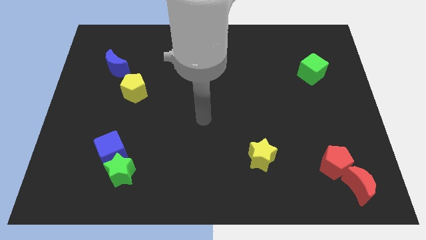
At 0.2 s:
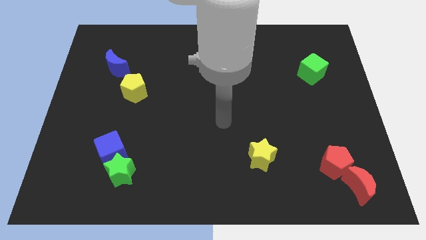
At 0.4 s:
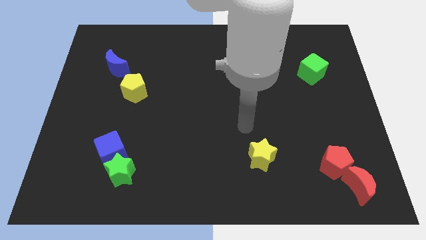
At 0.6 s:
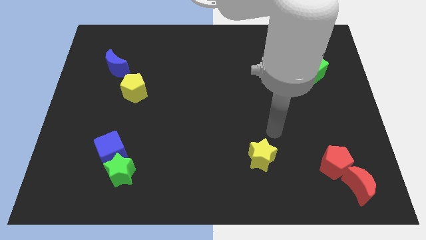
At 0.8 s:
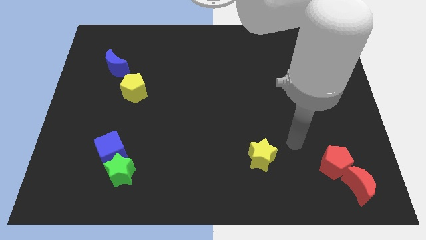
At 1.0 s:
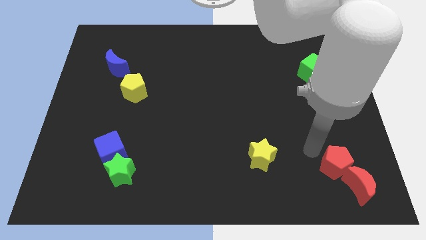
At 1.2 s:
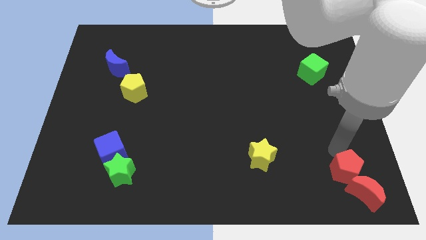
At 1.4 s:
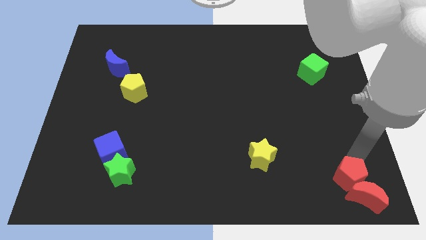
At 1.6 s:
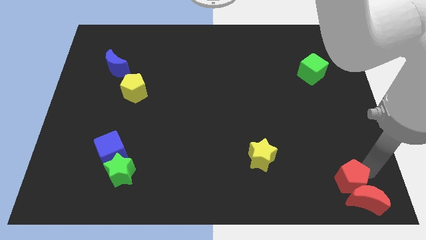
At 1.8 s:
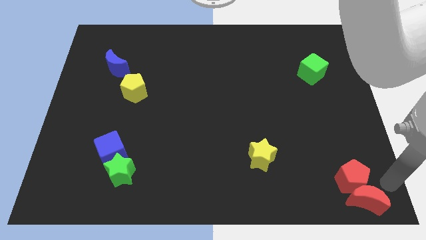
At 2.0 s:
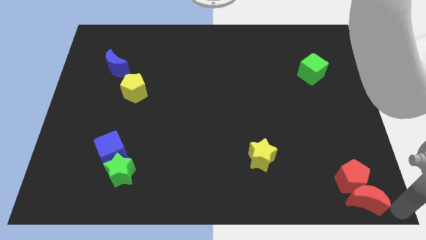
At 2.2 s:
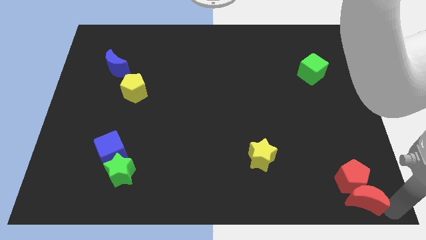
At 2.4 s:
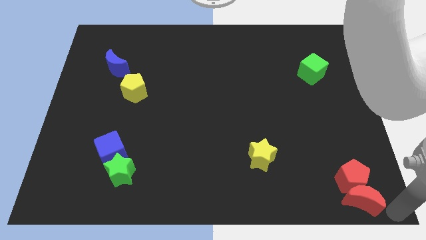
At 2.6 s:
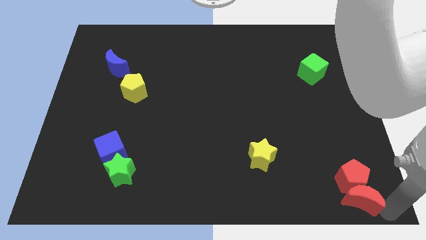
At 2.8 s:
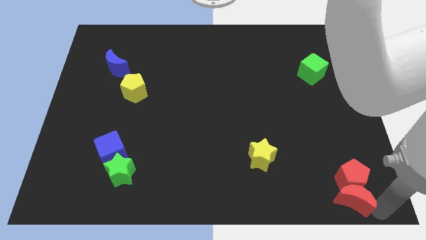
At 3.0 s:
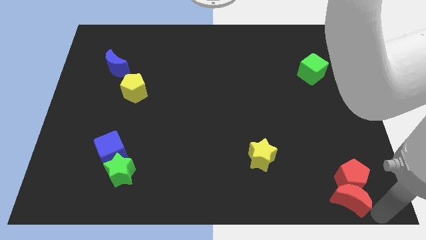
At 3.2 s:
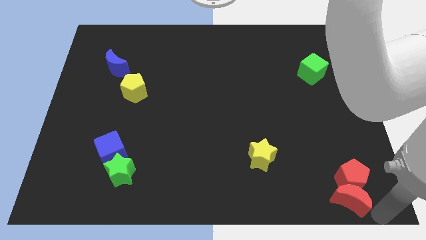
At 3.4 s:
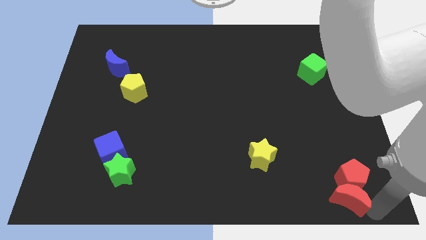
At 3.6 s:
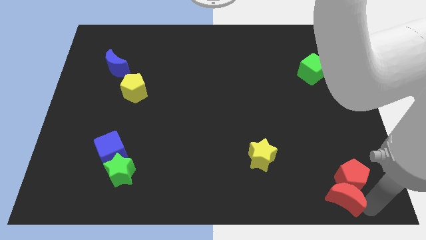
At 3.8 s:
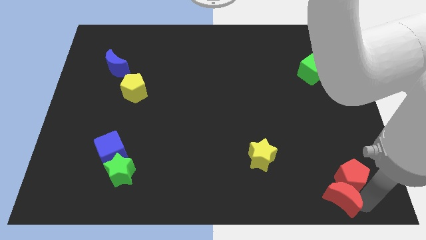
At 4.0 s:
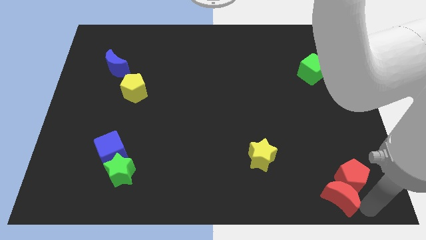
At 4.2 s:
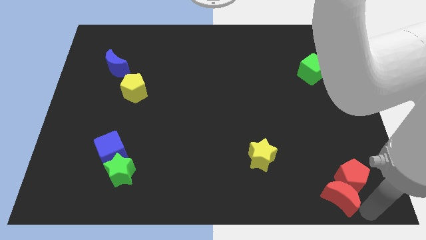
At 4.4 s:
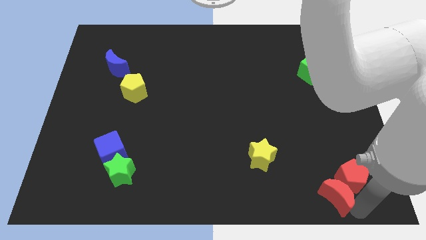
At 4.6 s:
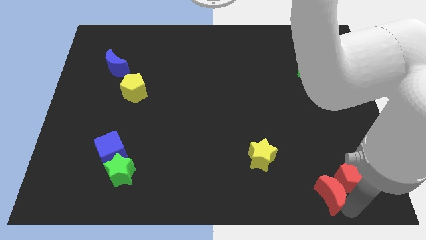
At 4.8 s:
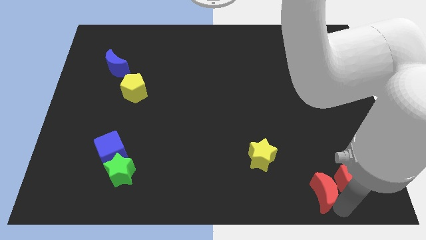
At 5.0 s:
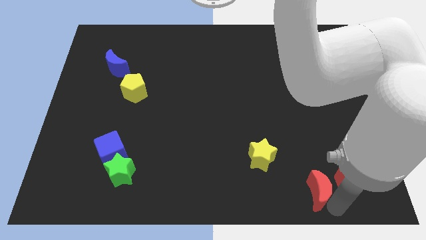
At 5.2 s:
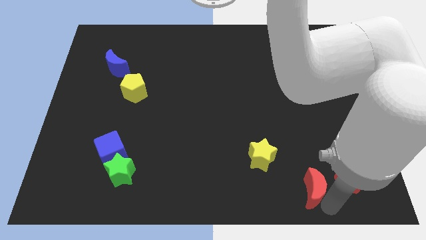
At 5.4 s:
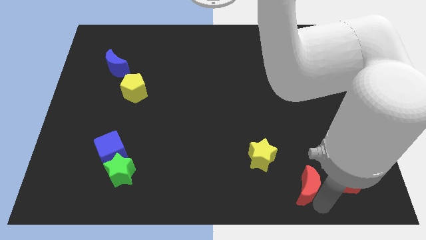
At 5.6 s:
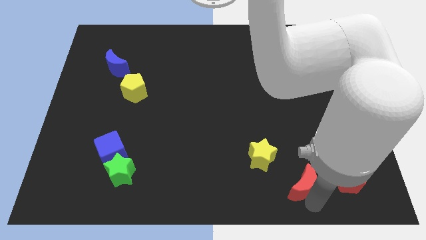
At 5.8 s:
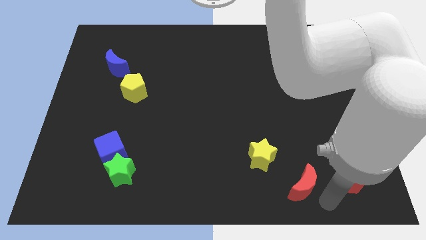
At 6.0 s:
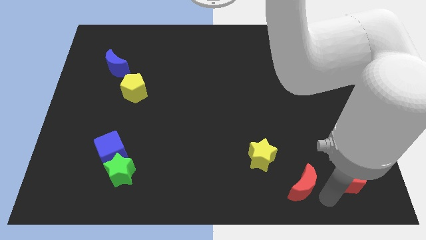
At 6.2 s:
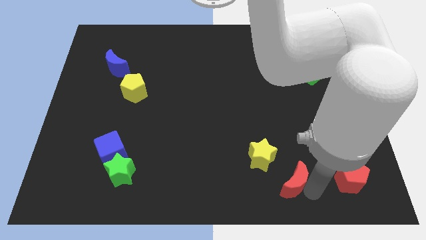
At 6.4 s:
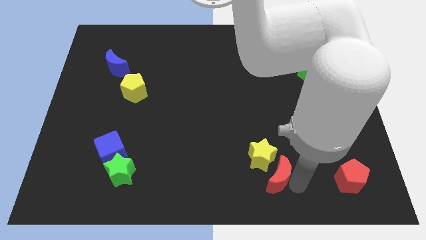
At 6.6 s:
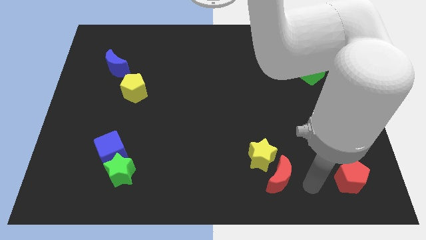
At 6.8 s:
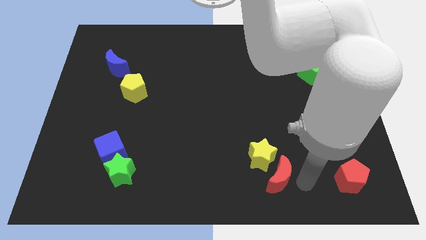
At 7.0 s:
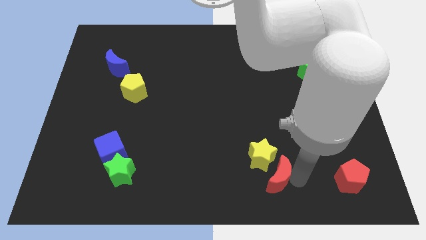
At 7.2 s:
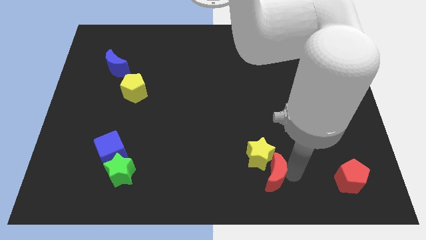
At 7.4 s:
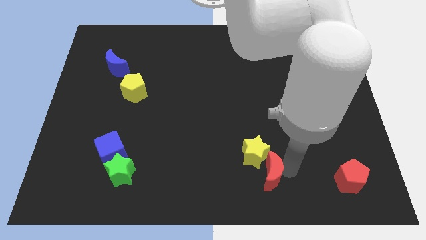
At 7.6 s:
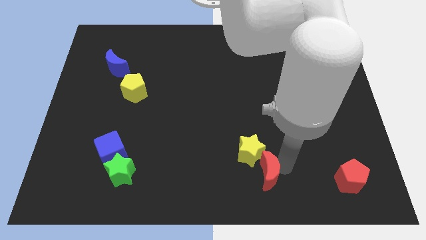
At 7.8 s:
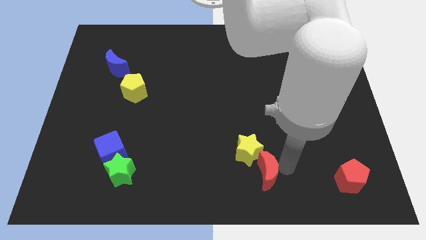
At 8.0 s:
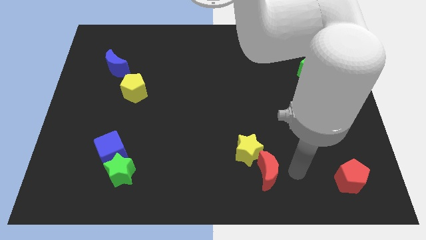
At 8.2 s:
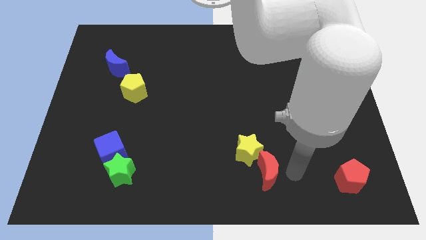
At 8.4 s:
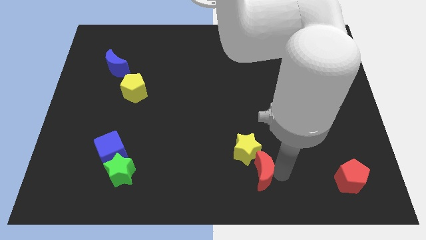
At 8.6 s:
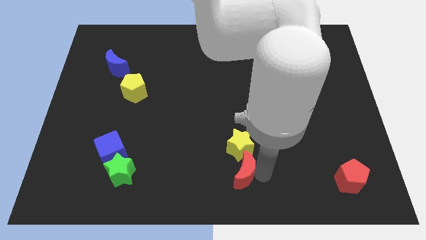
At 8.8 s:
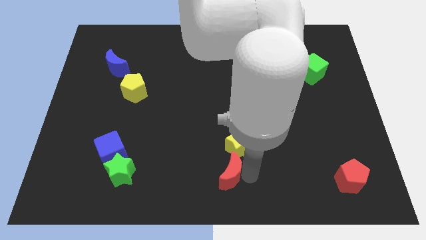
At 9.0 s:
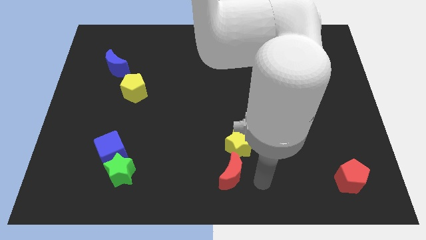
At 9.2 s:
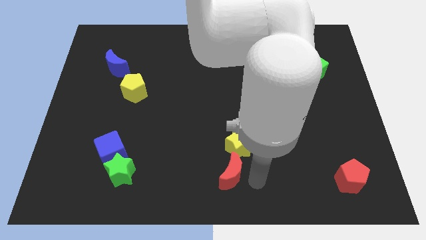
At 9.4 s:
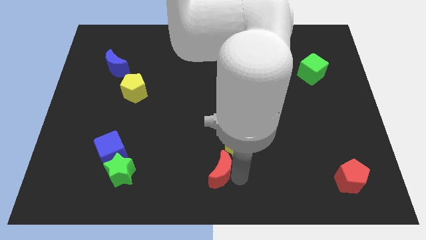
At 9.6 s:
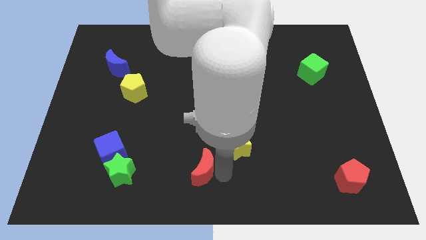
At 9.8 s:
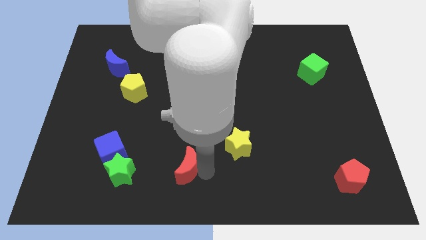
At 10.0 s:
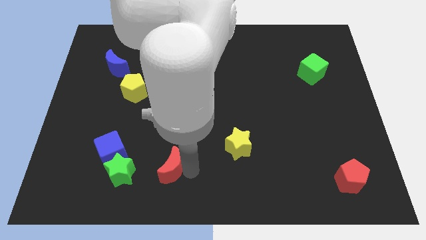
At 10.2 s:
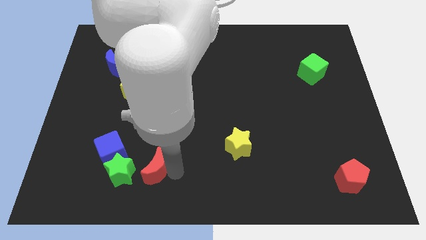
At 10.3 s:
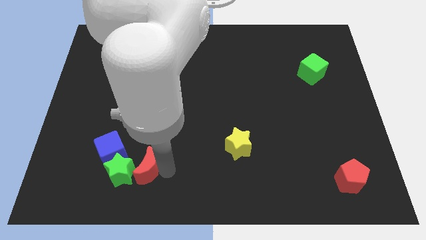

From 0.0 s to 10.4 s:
push the red moon close to the green star

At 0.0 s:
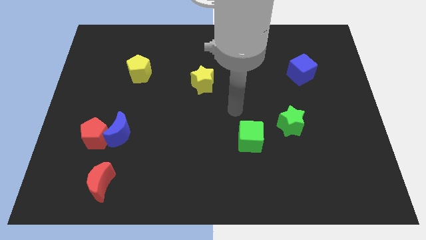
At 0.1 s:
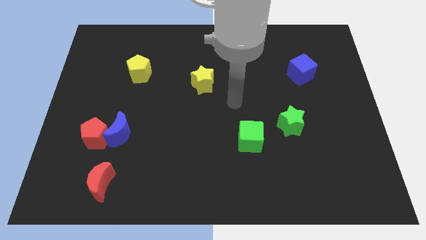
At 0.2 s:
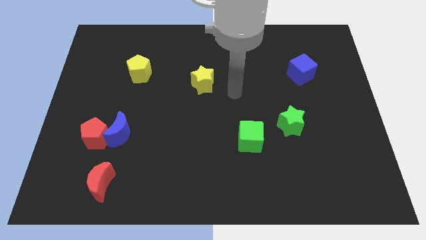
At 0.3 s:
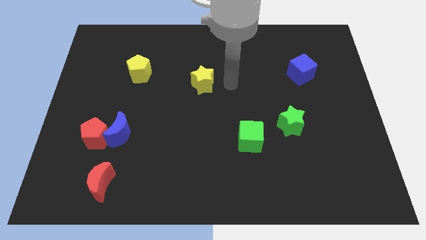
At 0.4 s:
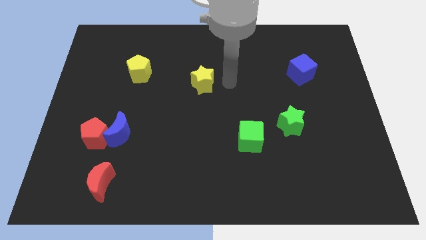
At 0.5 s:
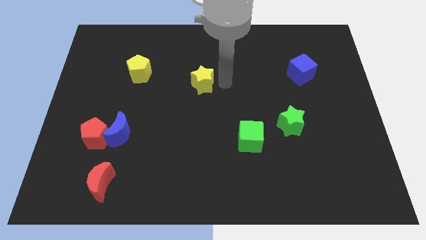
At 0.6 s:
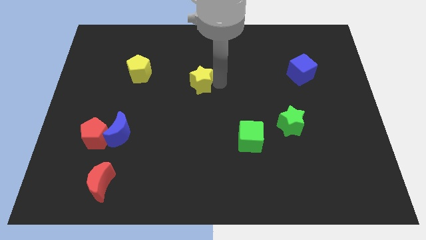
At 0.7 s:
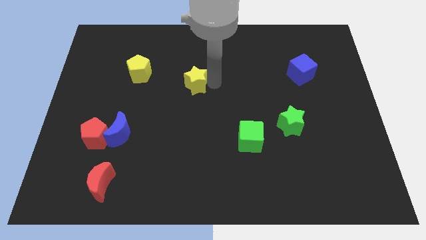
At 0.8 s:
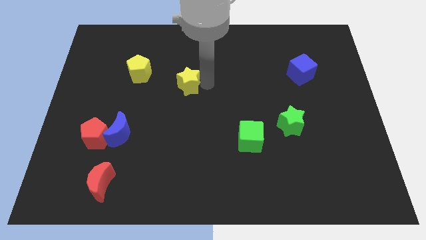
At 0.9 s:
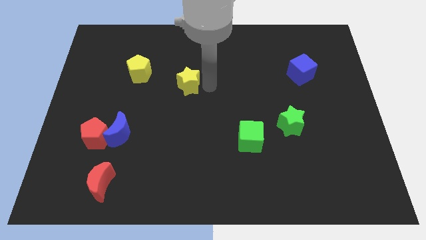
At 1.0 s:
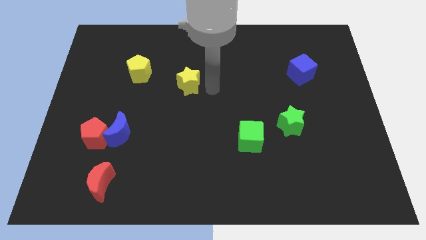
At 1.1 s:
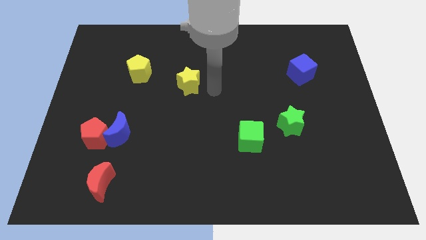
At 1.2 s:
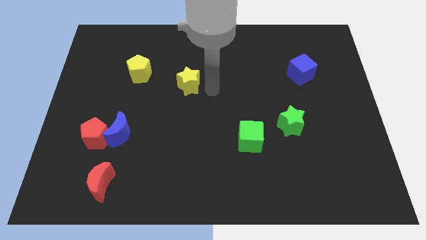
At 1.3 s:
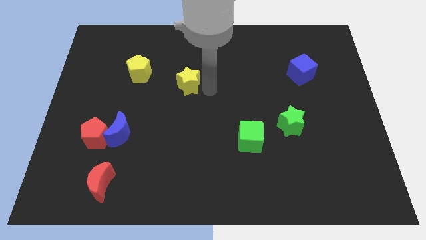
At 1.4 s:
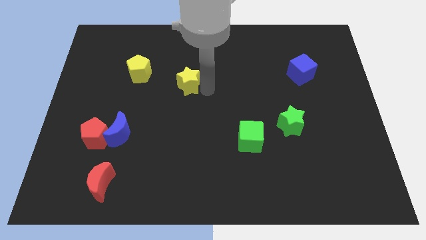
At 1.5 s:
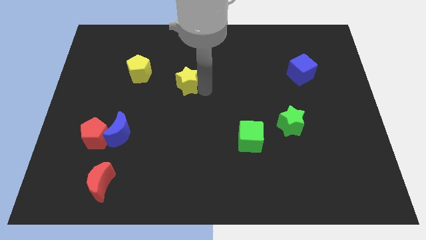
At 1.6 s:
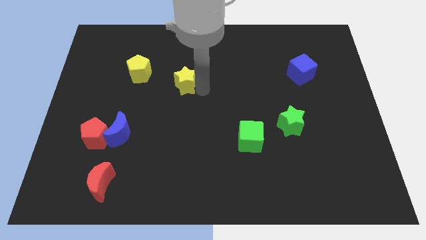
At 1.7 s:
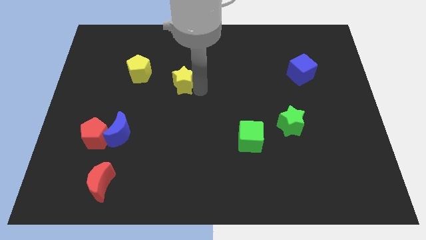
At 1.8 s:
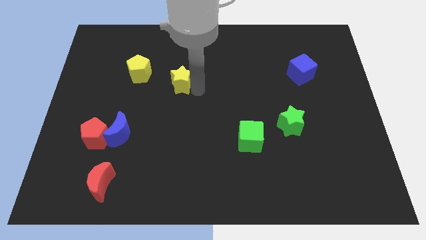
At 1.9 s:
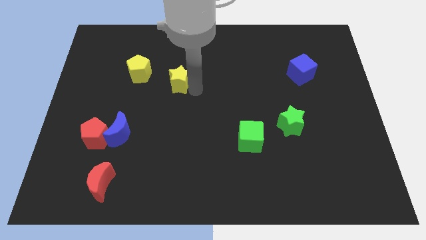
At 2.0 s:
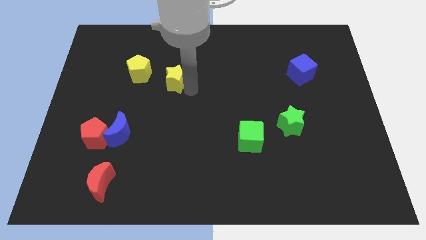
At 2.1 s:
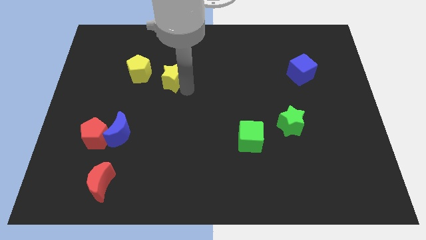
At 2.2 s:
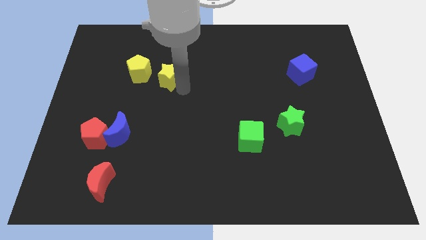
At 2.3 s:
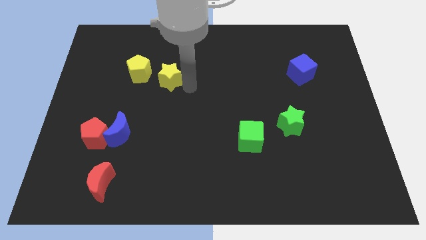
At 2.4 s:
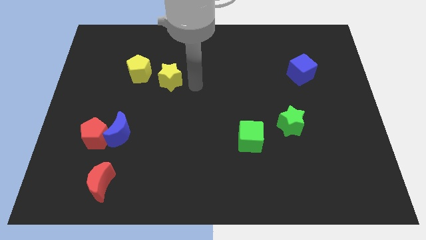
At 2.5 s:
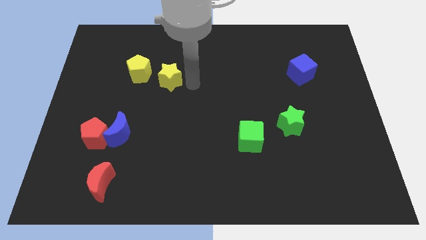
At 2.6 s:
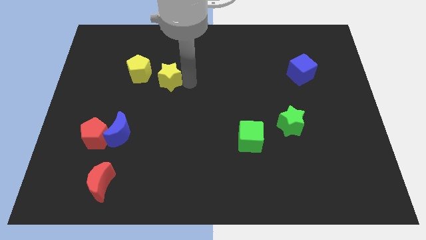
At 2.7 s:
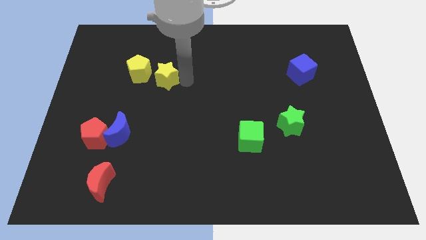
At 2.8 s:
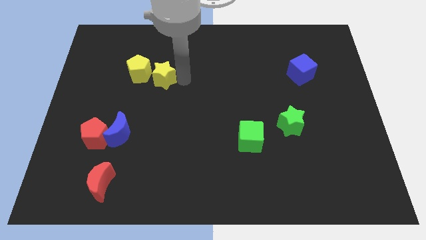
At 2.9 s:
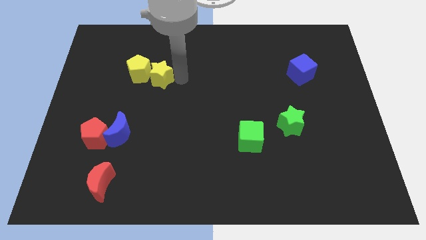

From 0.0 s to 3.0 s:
slide the yellow star close to the yellow pentagon
